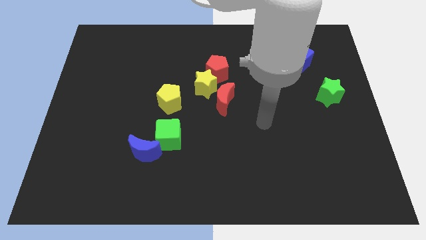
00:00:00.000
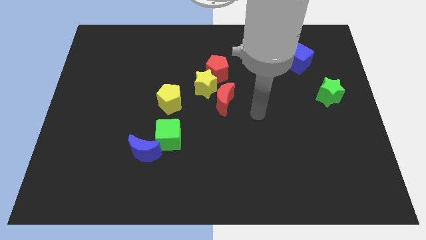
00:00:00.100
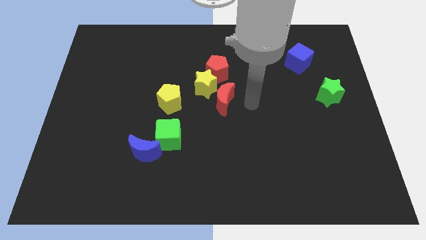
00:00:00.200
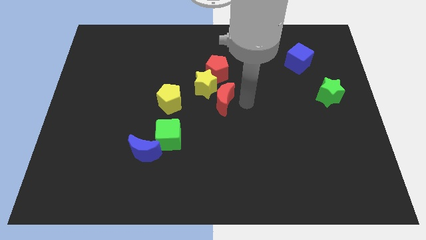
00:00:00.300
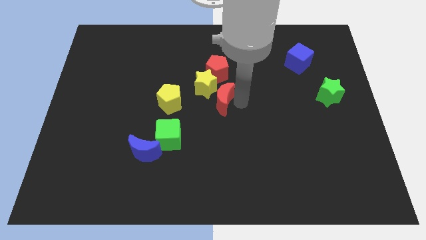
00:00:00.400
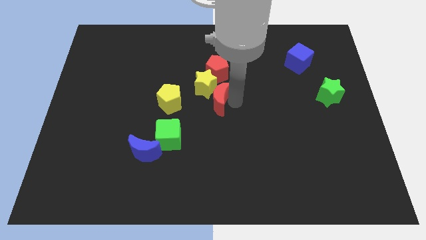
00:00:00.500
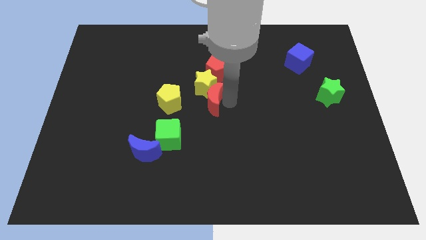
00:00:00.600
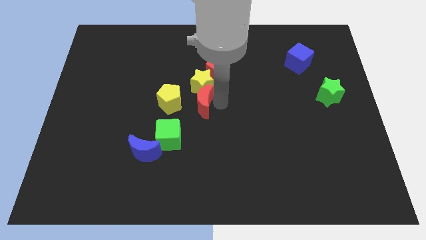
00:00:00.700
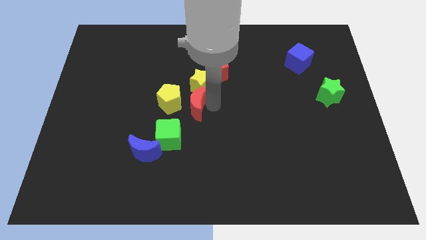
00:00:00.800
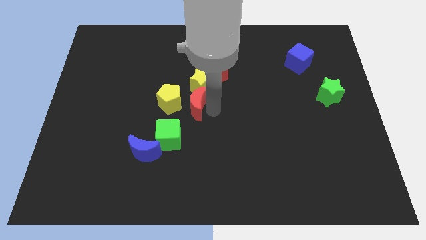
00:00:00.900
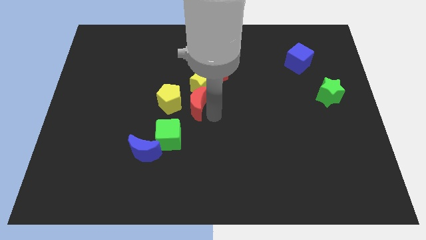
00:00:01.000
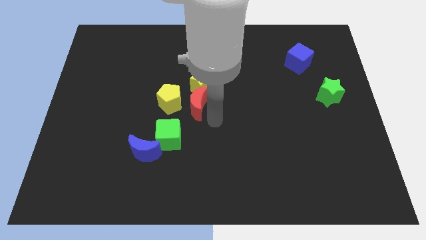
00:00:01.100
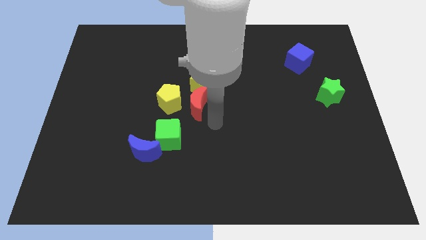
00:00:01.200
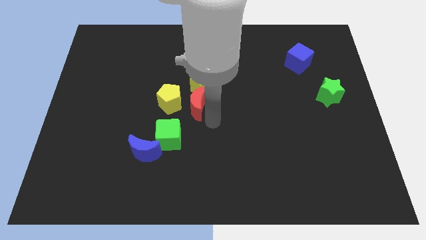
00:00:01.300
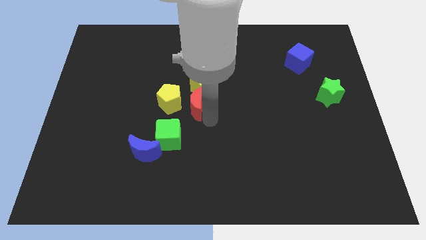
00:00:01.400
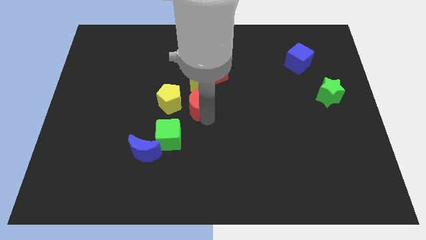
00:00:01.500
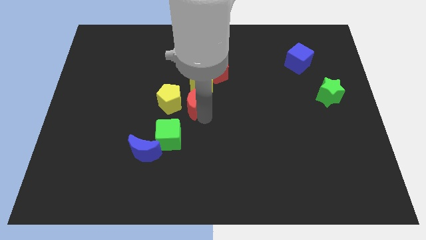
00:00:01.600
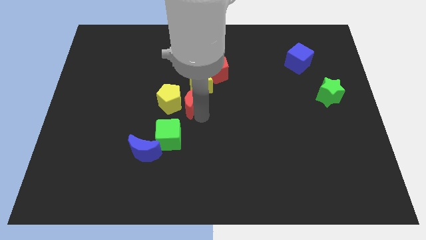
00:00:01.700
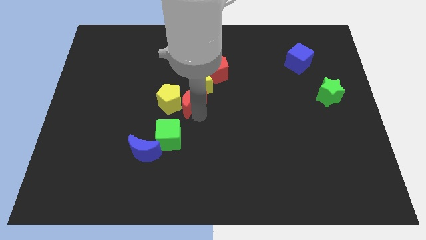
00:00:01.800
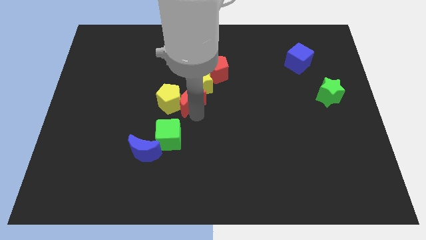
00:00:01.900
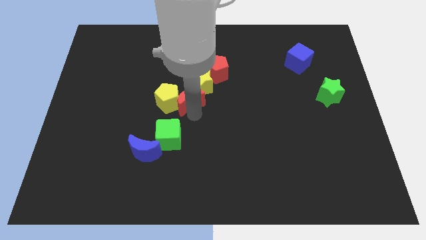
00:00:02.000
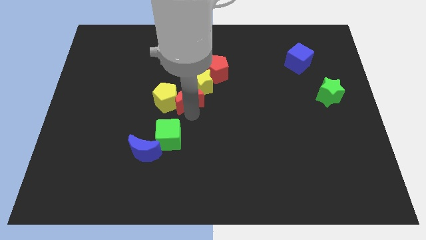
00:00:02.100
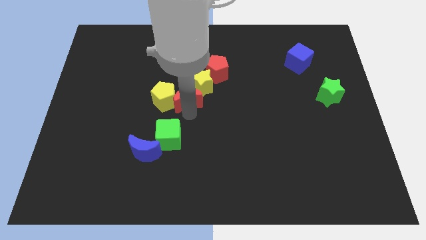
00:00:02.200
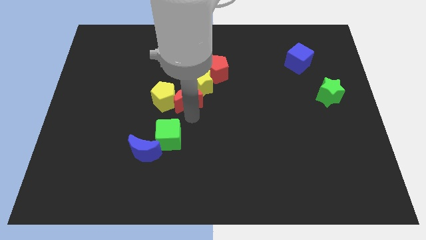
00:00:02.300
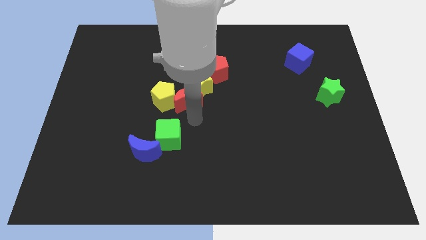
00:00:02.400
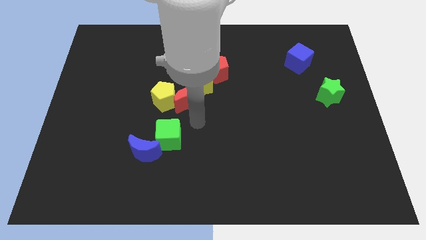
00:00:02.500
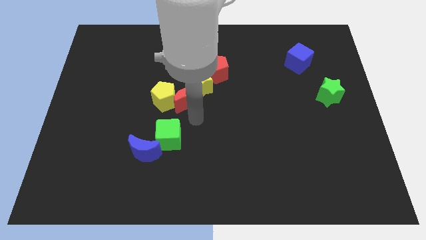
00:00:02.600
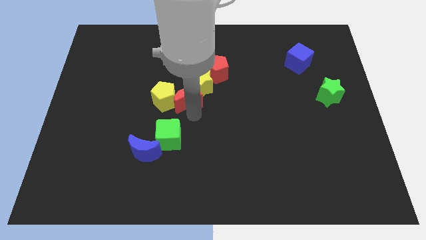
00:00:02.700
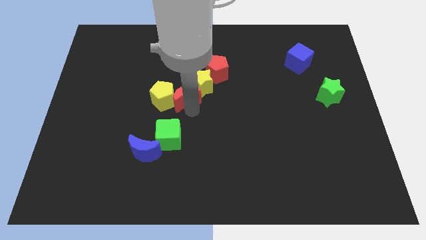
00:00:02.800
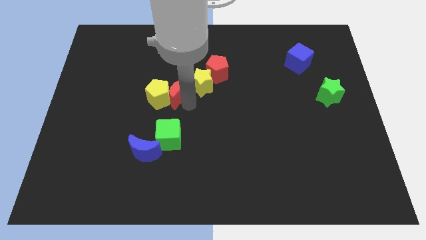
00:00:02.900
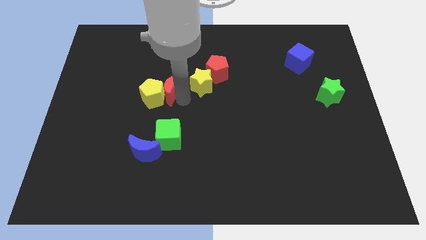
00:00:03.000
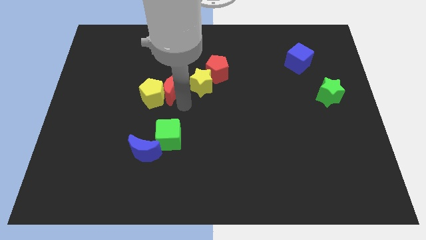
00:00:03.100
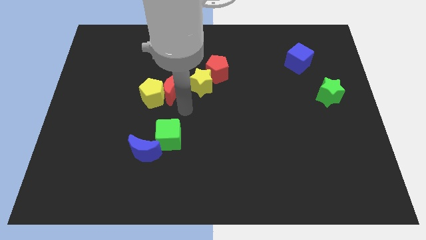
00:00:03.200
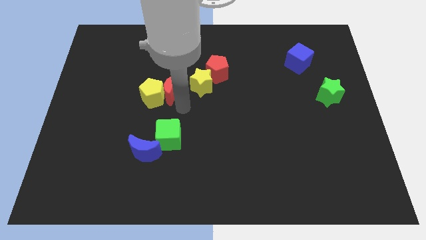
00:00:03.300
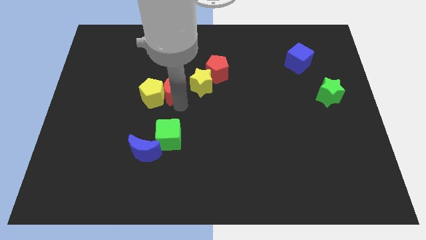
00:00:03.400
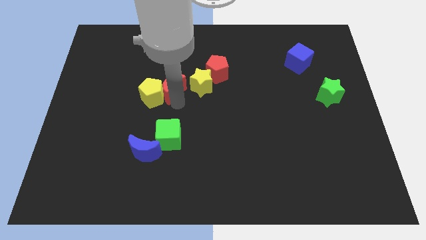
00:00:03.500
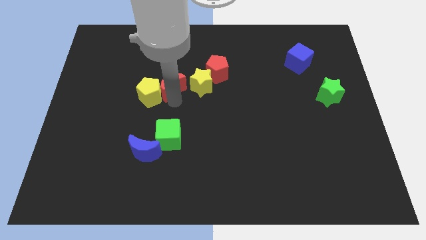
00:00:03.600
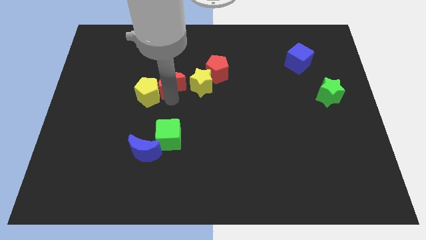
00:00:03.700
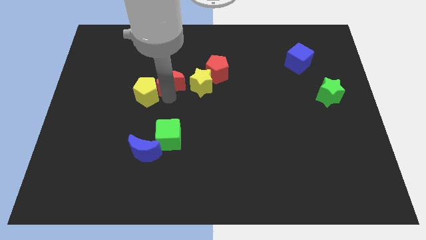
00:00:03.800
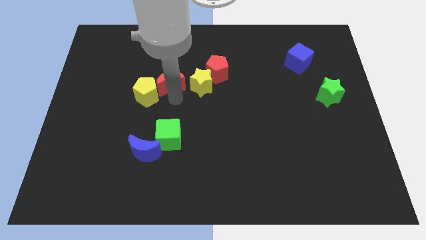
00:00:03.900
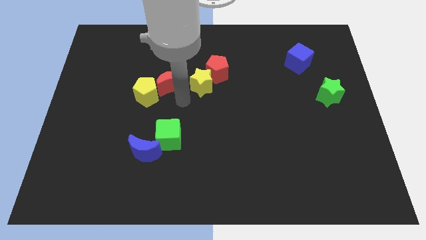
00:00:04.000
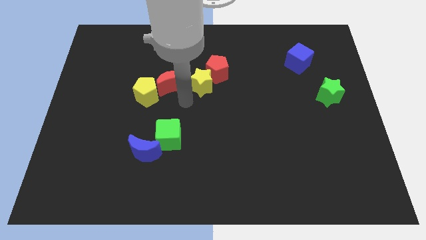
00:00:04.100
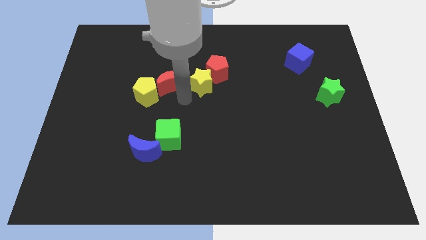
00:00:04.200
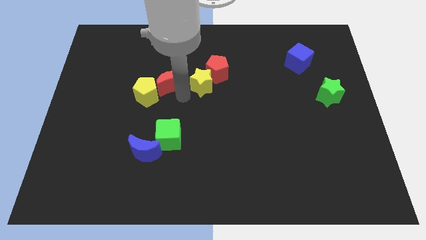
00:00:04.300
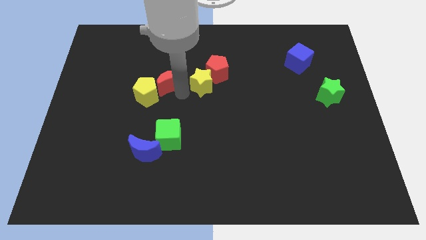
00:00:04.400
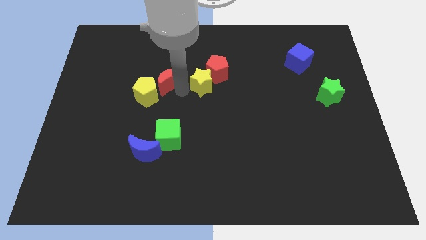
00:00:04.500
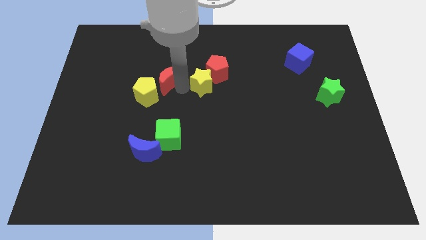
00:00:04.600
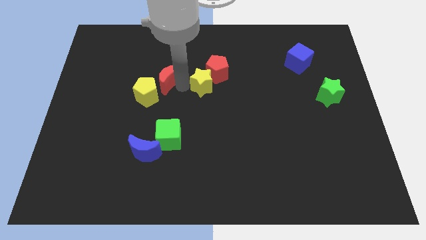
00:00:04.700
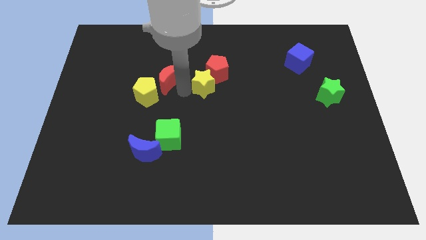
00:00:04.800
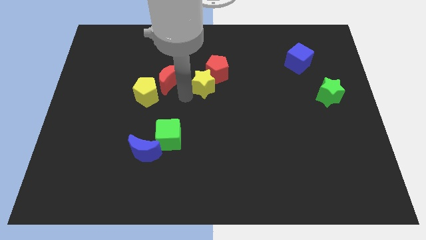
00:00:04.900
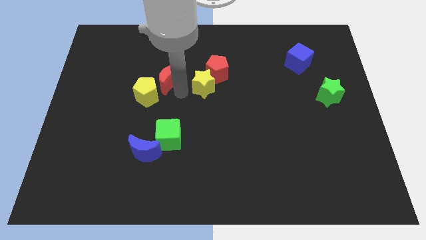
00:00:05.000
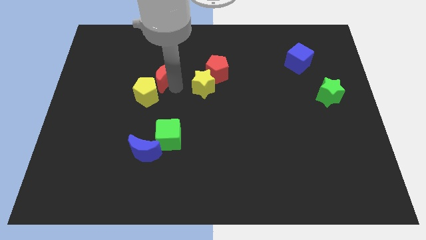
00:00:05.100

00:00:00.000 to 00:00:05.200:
slide the red moon to the top of the yellow pentagon

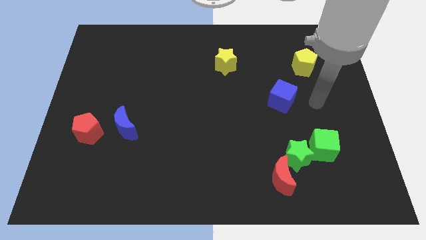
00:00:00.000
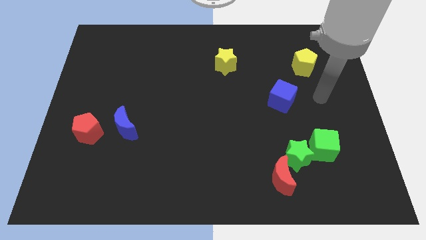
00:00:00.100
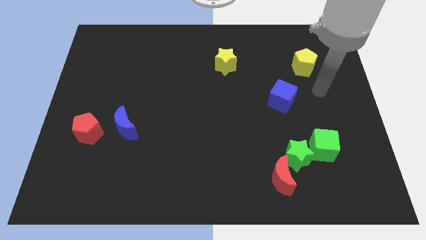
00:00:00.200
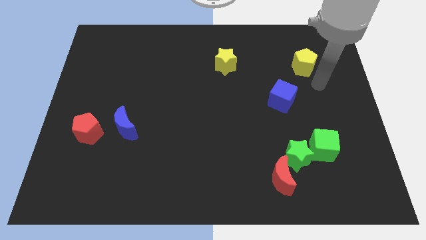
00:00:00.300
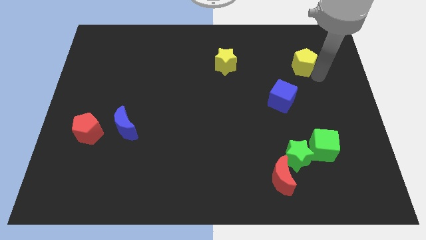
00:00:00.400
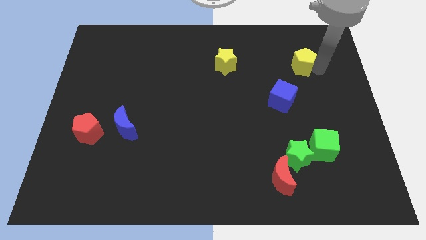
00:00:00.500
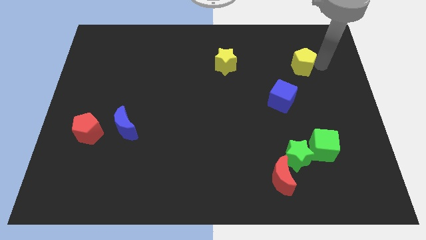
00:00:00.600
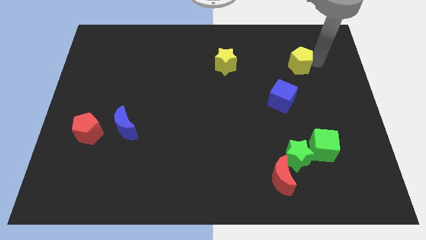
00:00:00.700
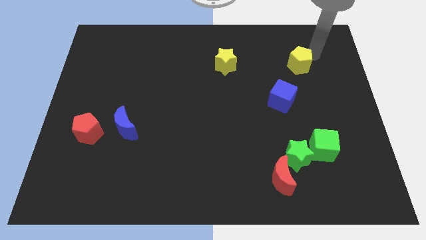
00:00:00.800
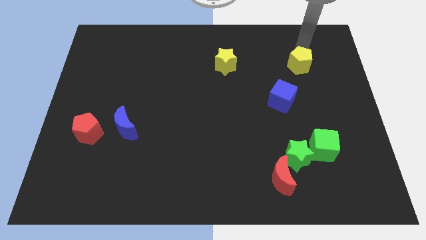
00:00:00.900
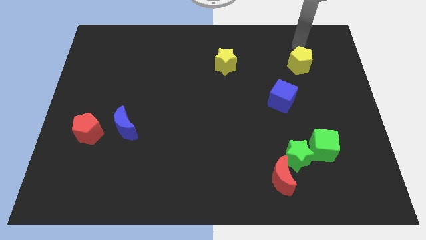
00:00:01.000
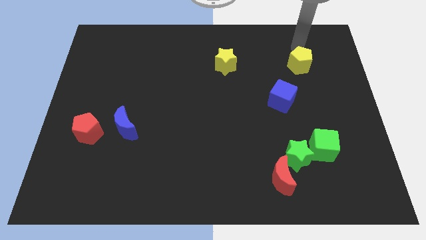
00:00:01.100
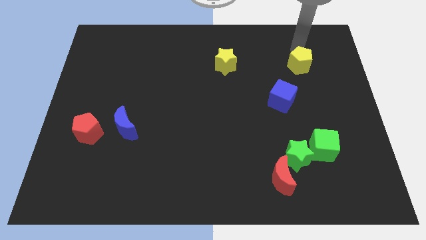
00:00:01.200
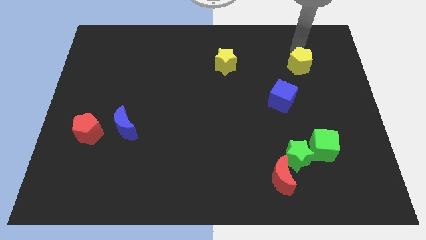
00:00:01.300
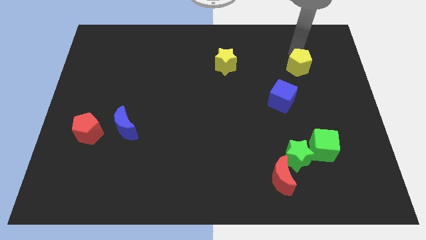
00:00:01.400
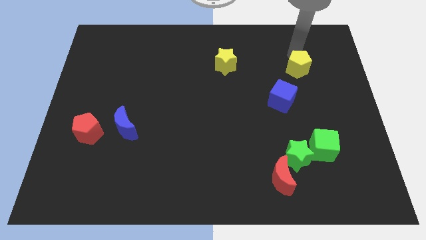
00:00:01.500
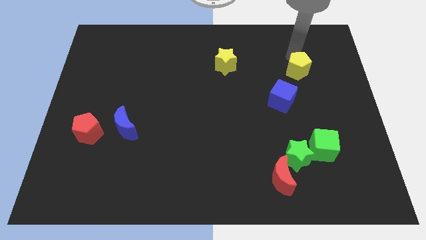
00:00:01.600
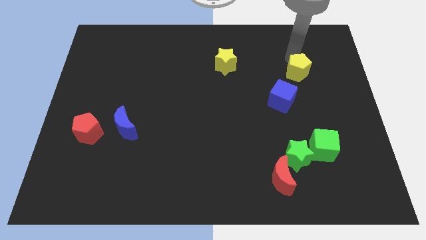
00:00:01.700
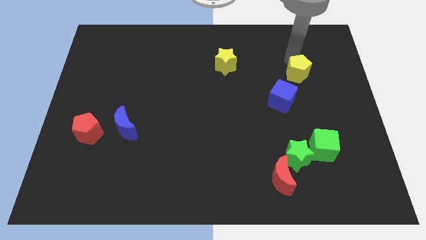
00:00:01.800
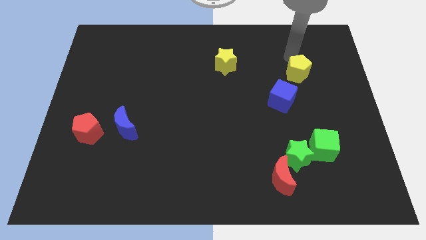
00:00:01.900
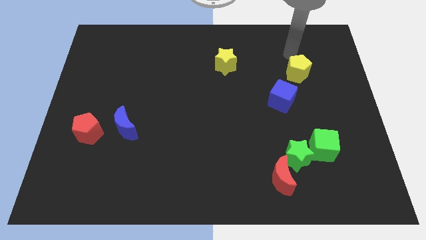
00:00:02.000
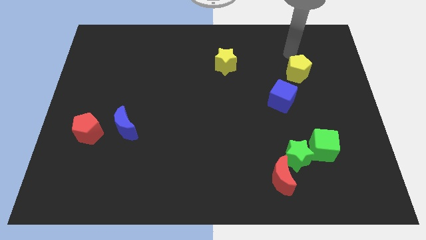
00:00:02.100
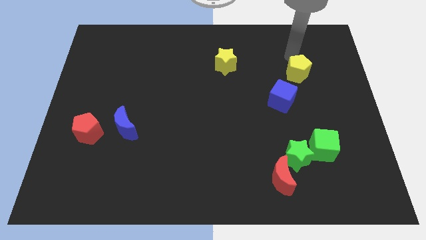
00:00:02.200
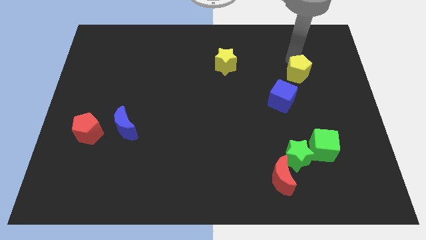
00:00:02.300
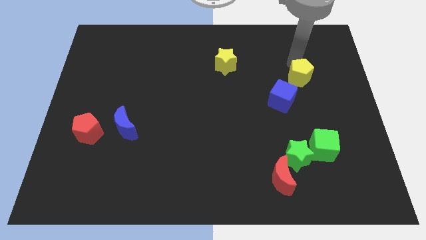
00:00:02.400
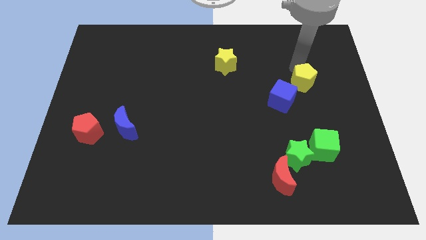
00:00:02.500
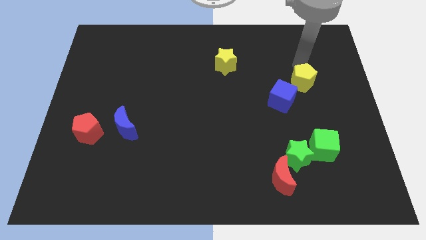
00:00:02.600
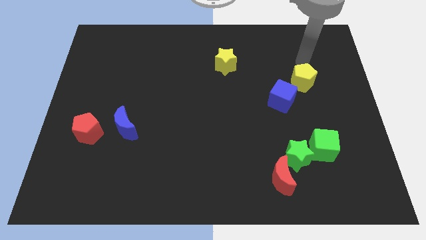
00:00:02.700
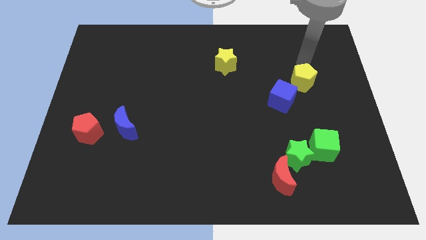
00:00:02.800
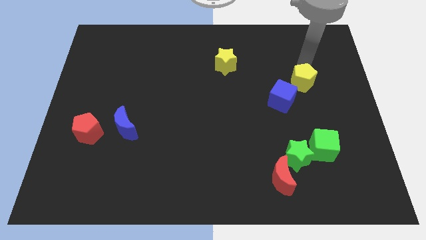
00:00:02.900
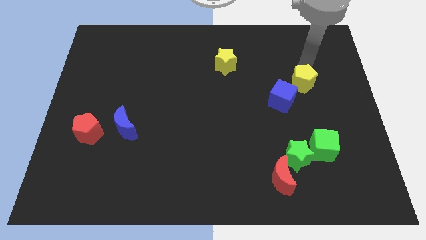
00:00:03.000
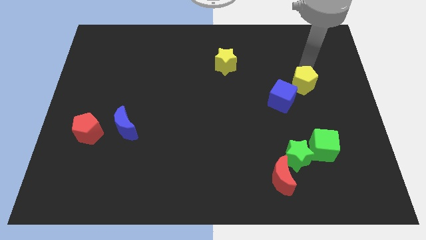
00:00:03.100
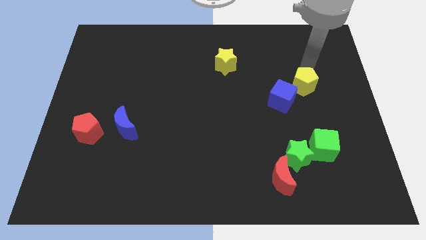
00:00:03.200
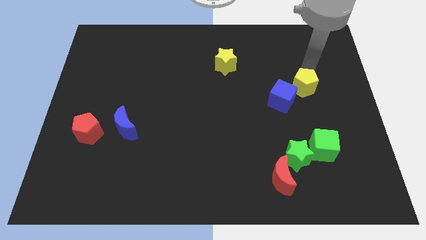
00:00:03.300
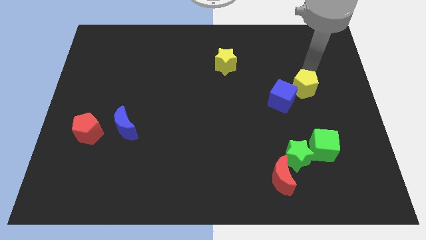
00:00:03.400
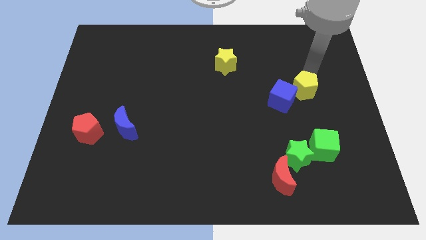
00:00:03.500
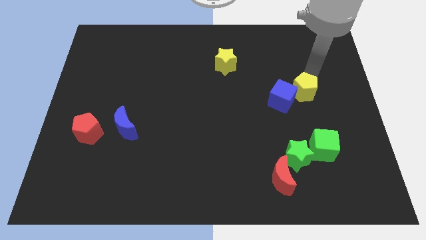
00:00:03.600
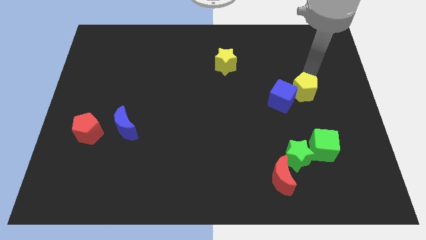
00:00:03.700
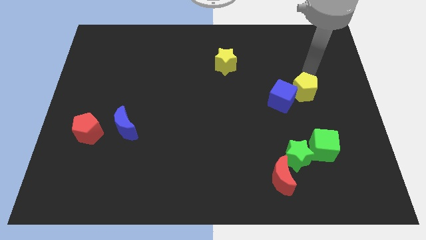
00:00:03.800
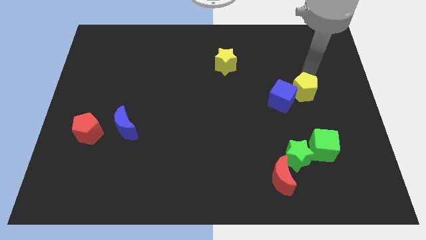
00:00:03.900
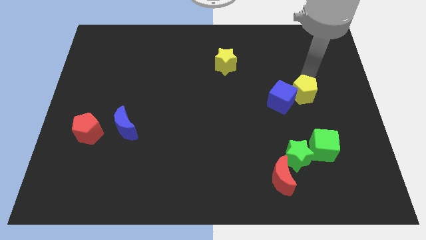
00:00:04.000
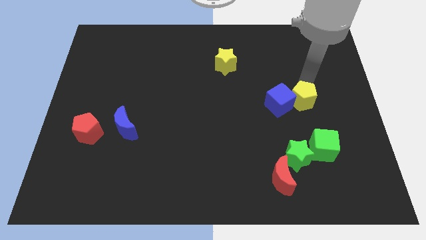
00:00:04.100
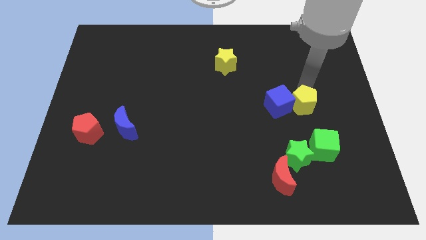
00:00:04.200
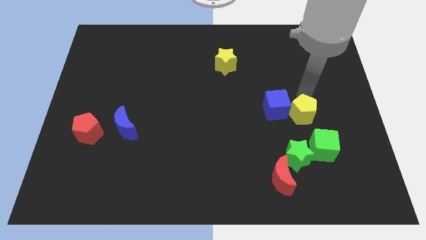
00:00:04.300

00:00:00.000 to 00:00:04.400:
push the yellow pentagon to the top left of the green cube
